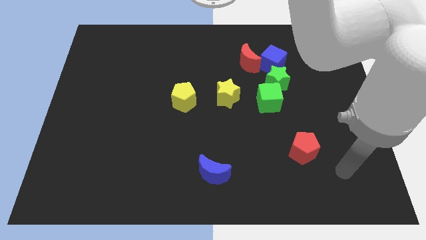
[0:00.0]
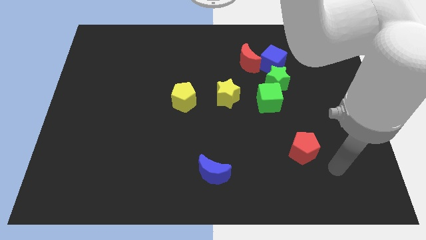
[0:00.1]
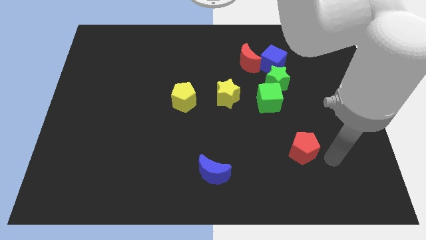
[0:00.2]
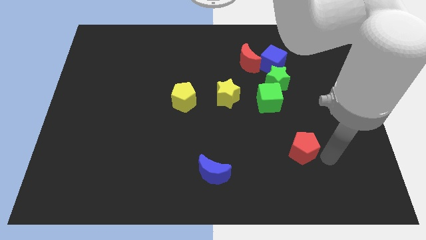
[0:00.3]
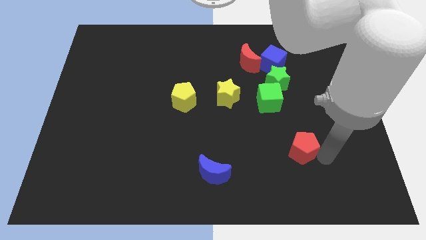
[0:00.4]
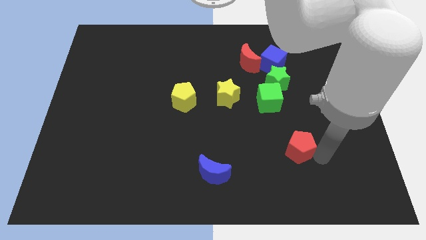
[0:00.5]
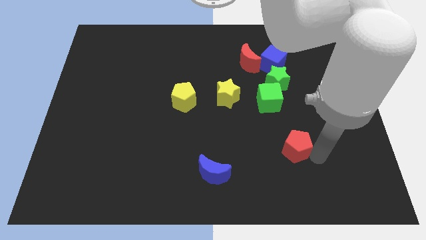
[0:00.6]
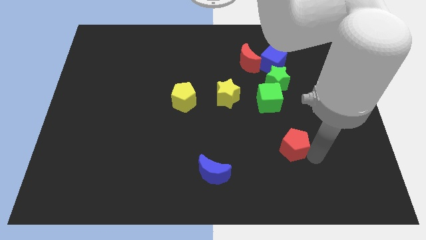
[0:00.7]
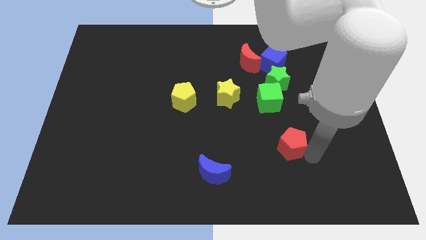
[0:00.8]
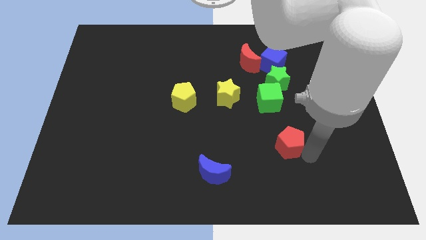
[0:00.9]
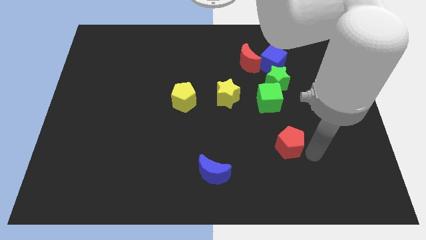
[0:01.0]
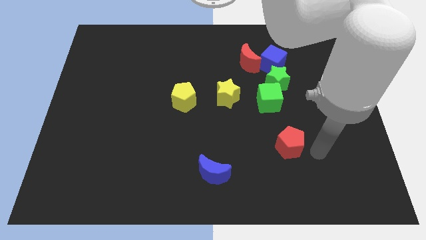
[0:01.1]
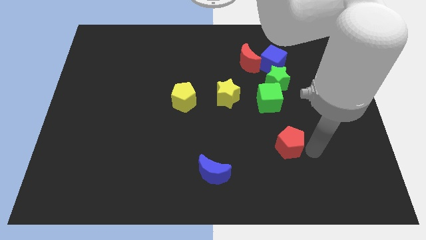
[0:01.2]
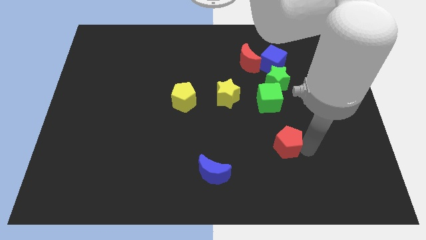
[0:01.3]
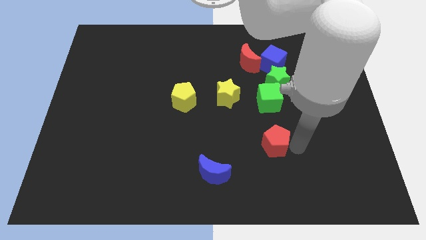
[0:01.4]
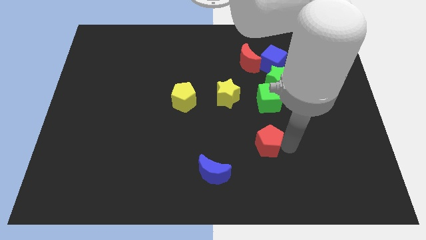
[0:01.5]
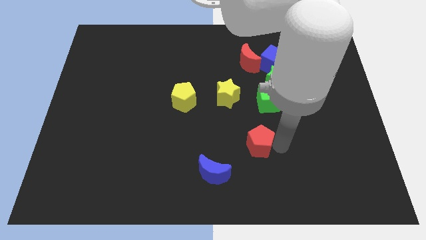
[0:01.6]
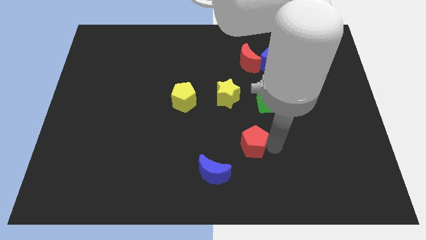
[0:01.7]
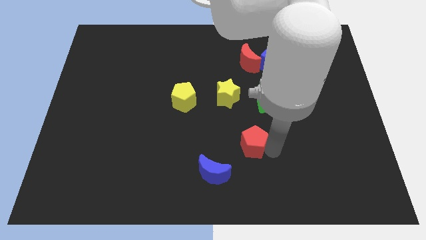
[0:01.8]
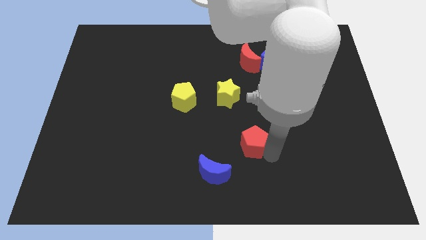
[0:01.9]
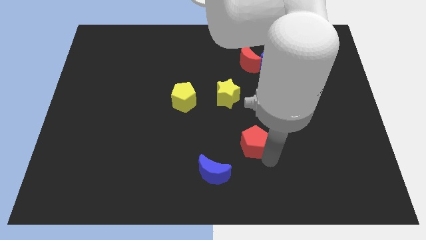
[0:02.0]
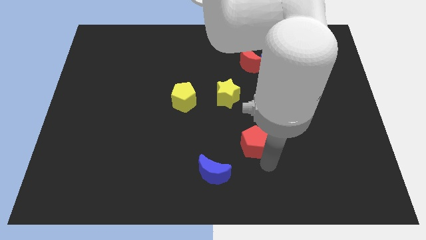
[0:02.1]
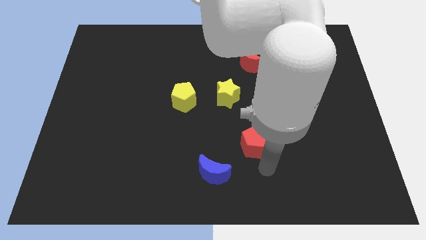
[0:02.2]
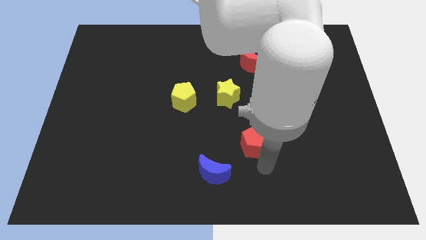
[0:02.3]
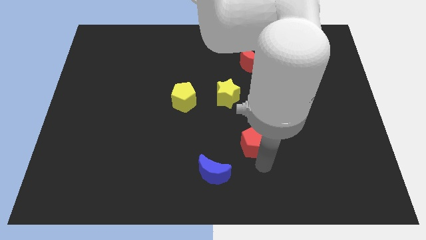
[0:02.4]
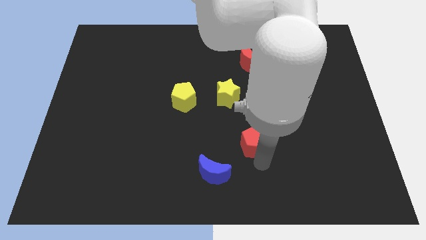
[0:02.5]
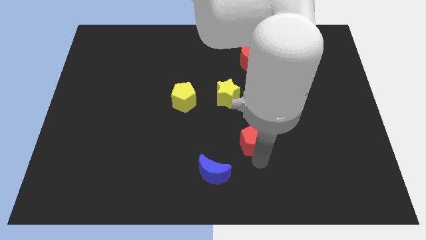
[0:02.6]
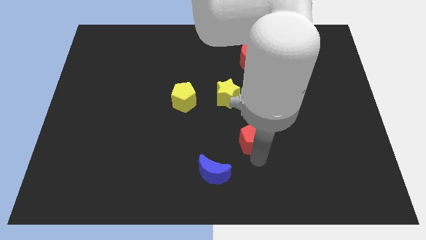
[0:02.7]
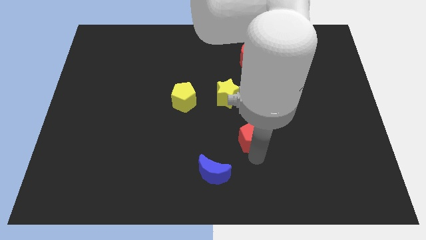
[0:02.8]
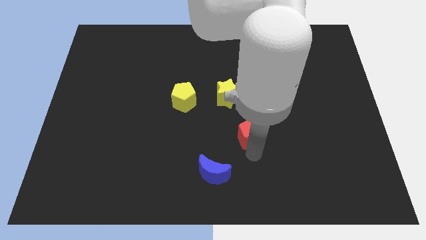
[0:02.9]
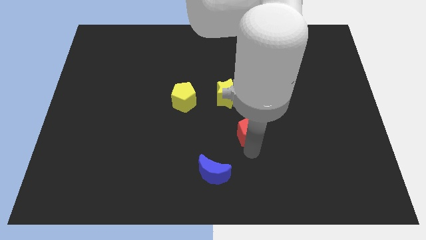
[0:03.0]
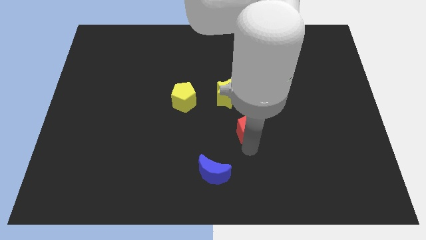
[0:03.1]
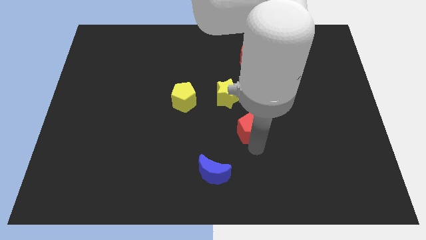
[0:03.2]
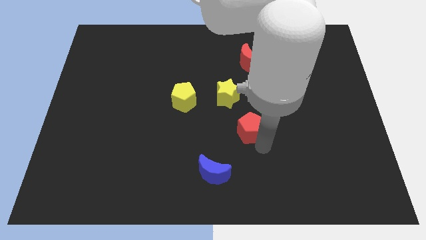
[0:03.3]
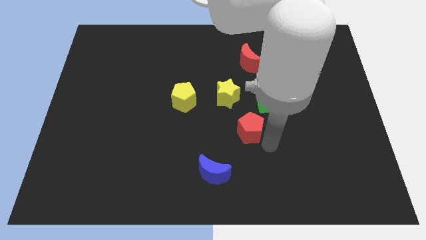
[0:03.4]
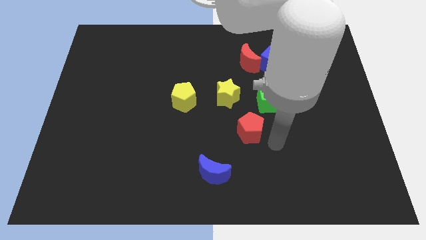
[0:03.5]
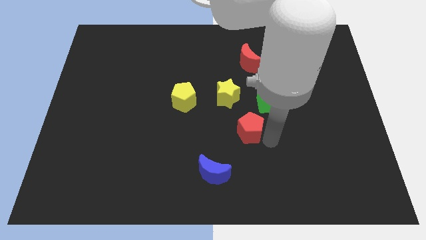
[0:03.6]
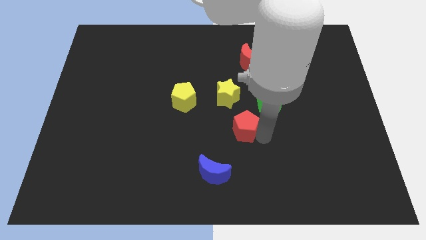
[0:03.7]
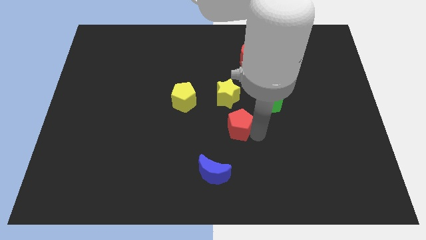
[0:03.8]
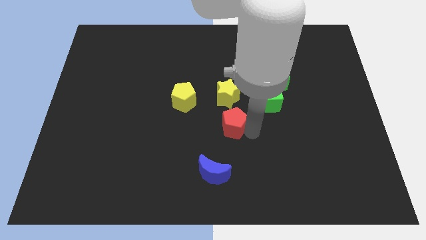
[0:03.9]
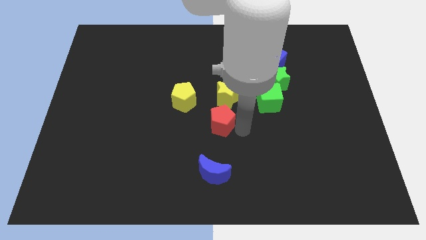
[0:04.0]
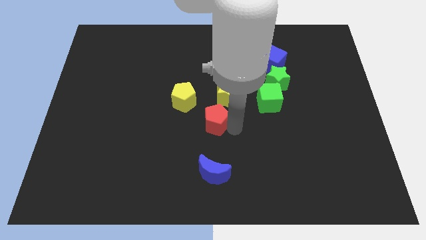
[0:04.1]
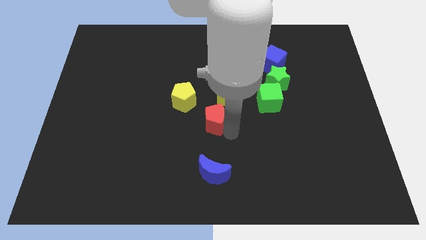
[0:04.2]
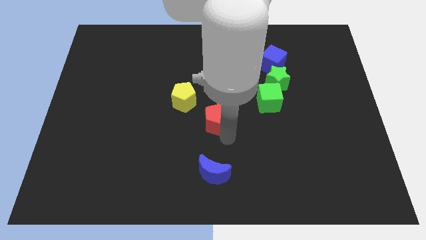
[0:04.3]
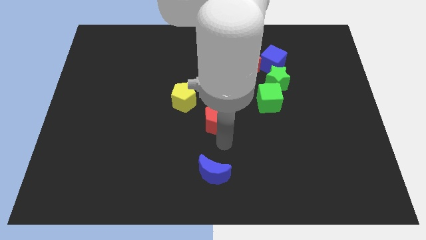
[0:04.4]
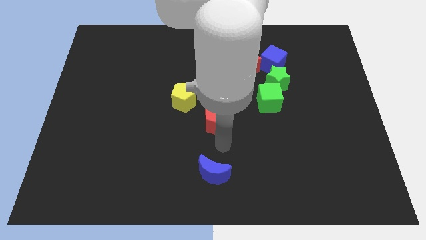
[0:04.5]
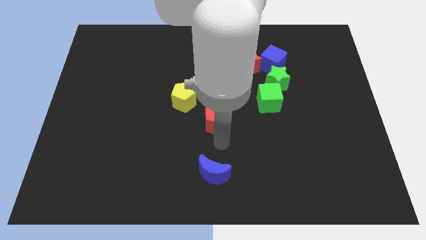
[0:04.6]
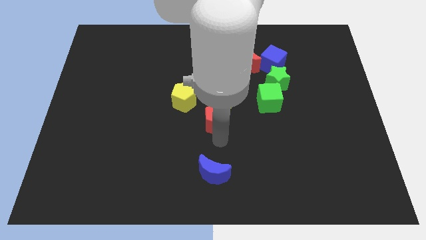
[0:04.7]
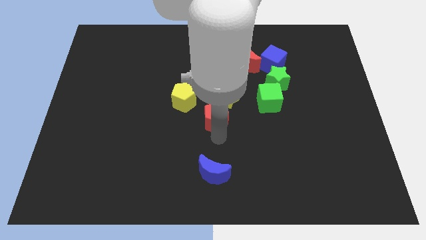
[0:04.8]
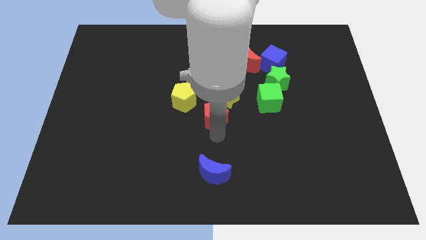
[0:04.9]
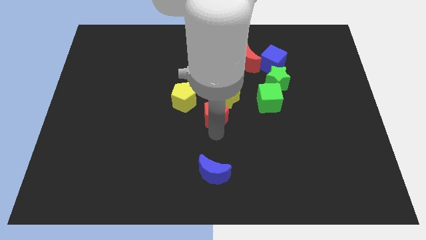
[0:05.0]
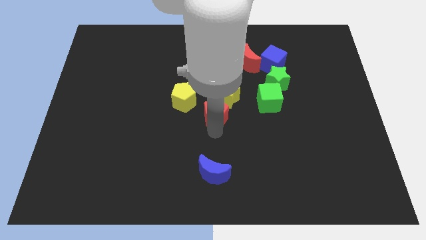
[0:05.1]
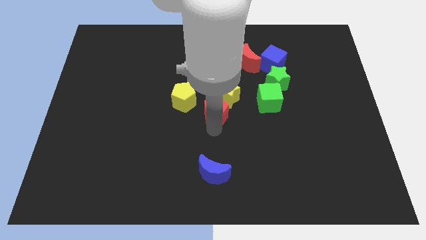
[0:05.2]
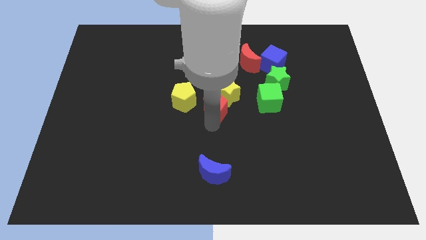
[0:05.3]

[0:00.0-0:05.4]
slide the red pentagon diagonally upwards and to the left

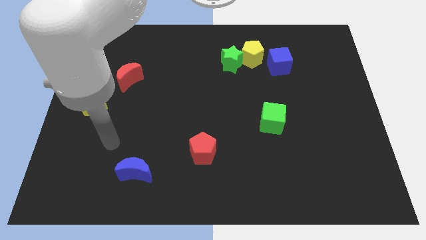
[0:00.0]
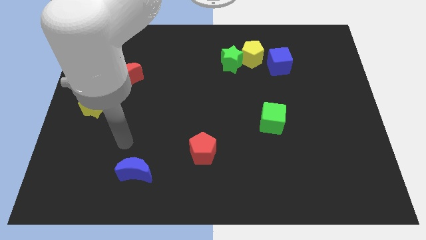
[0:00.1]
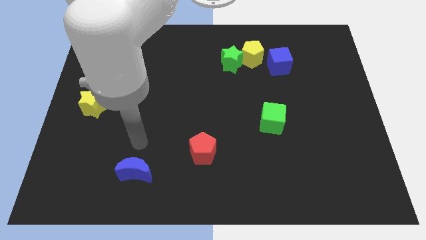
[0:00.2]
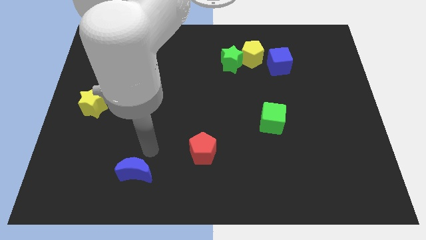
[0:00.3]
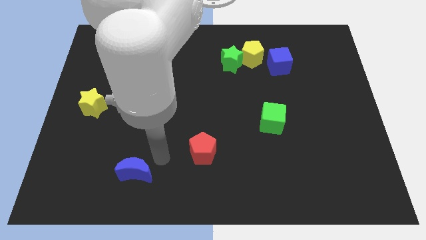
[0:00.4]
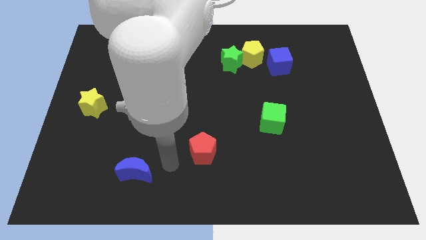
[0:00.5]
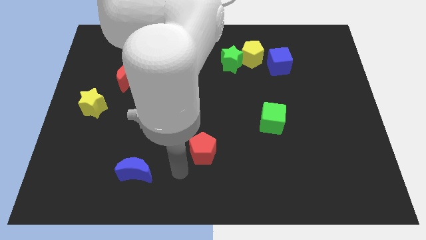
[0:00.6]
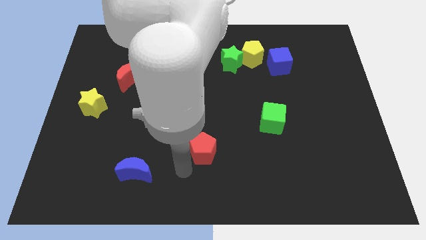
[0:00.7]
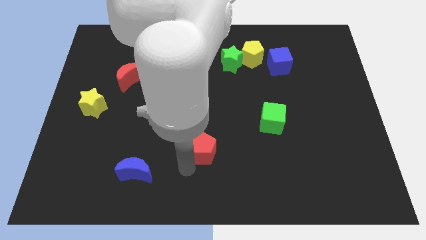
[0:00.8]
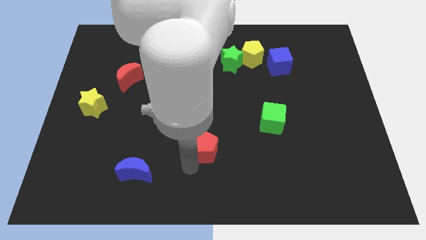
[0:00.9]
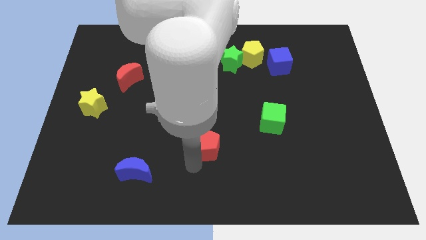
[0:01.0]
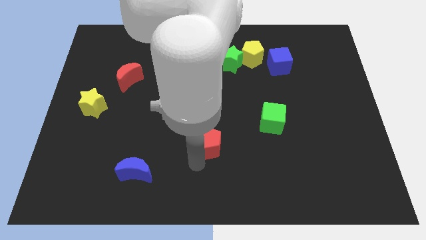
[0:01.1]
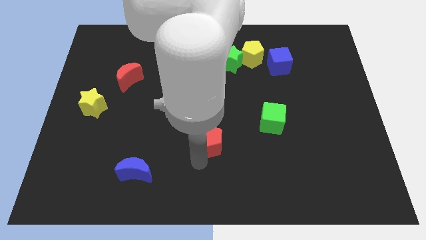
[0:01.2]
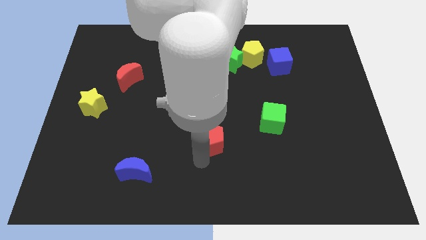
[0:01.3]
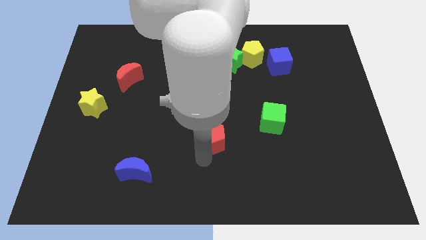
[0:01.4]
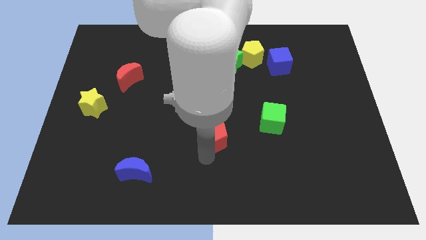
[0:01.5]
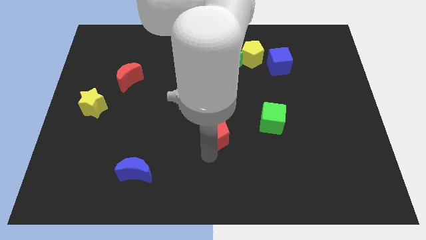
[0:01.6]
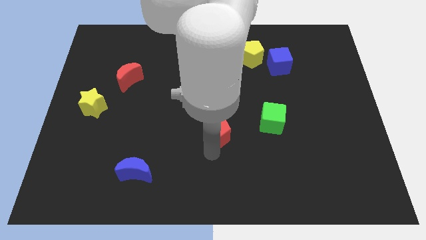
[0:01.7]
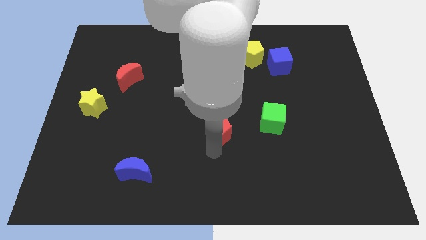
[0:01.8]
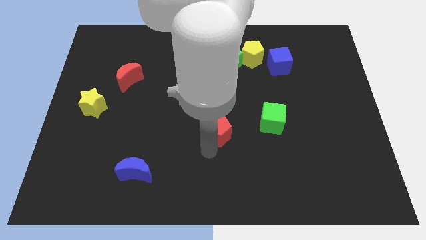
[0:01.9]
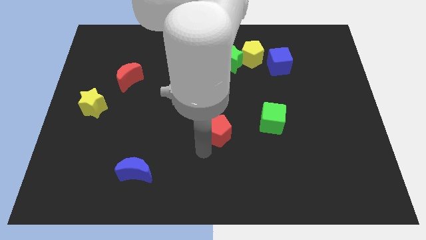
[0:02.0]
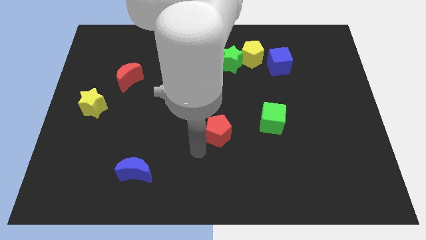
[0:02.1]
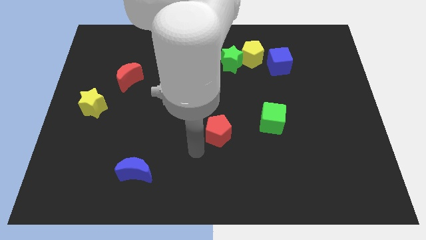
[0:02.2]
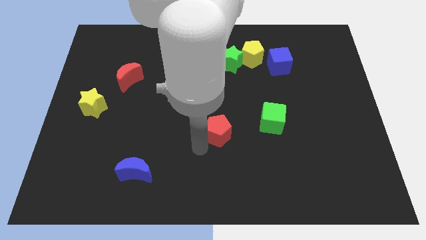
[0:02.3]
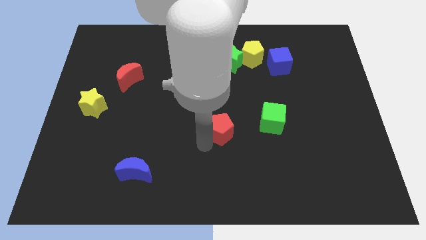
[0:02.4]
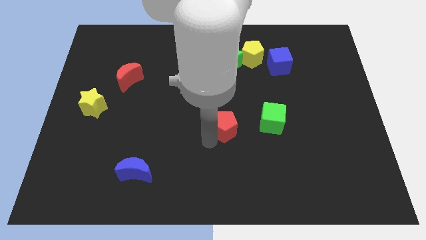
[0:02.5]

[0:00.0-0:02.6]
move the red pentagon up and right somewhat

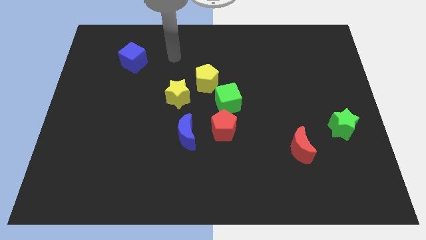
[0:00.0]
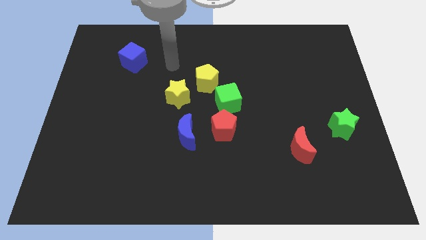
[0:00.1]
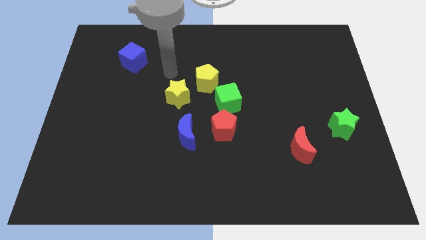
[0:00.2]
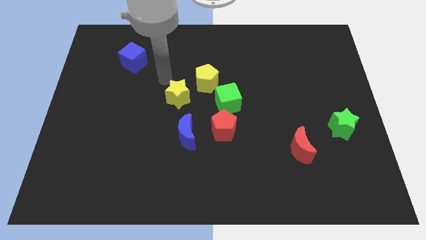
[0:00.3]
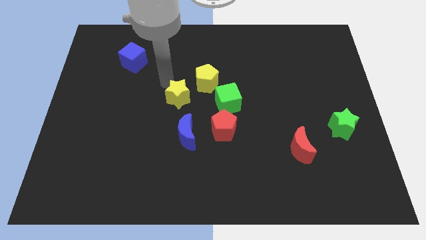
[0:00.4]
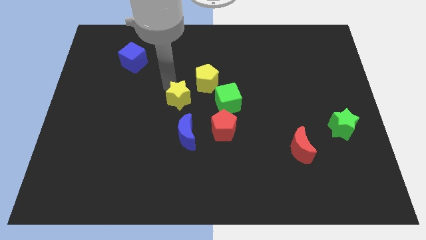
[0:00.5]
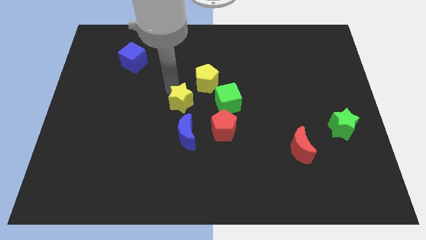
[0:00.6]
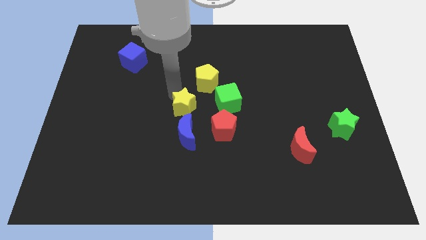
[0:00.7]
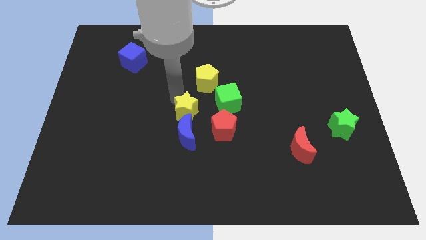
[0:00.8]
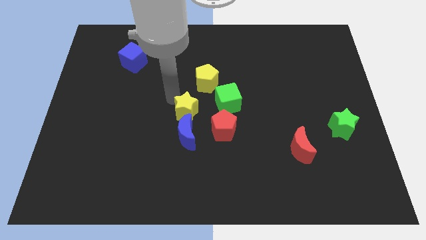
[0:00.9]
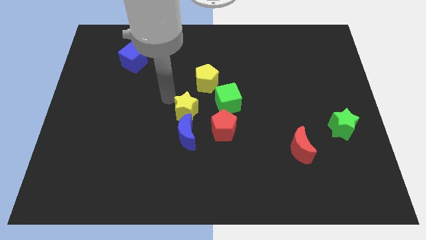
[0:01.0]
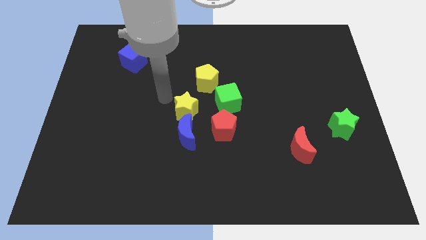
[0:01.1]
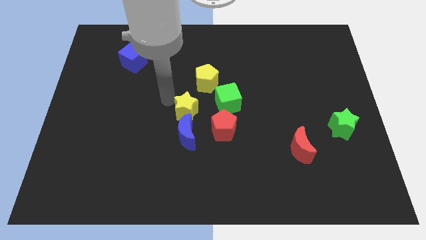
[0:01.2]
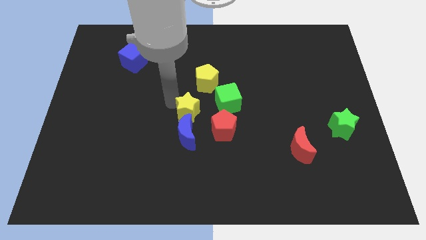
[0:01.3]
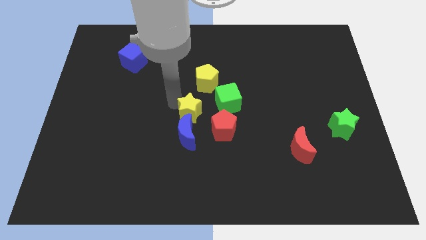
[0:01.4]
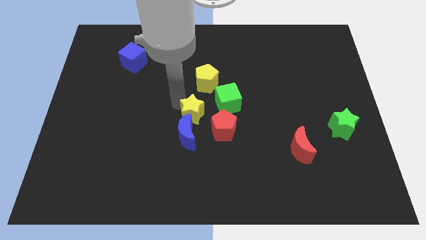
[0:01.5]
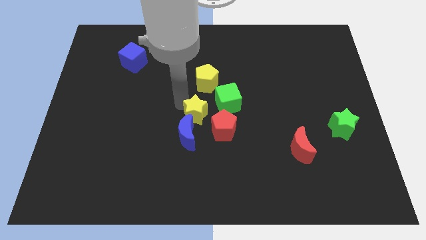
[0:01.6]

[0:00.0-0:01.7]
move the yellow star a little bit diagonally downwards and to the right
